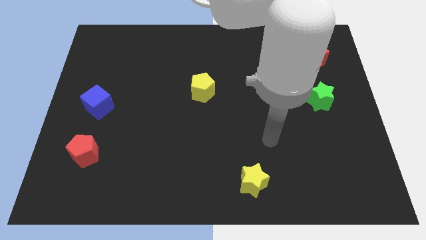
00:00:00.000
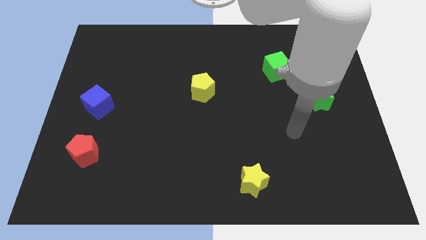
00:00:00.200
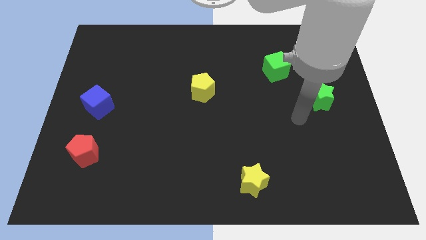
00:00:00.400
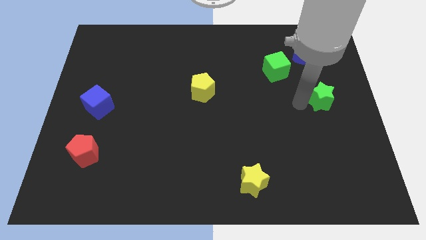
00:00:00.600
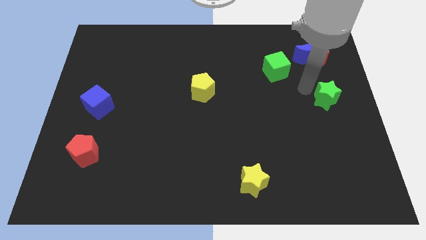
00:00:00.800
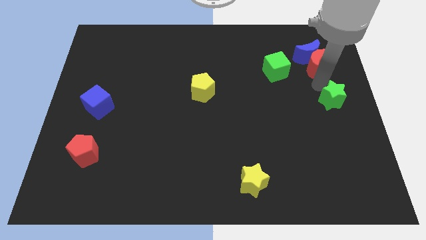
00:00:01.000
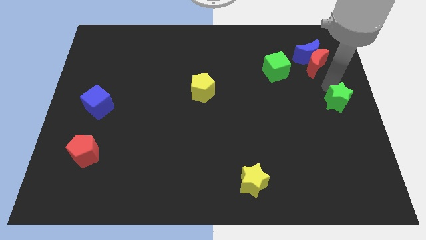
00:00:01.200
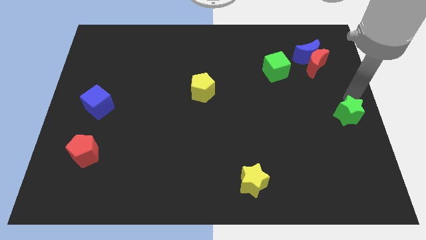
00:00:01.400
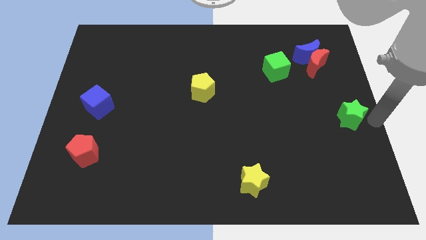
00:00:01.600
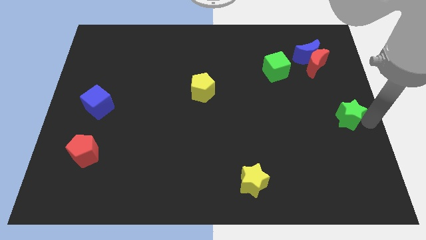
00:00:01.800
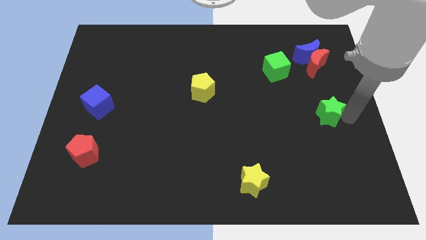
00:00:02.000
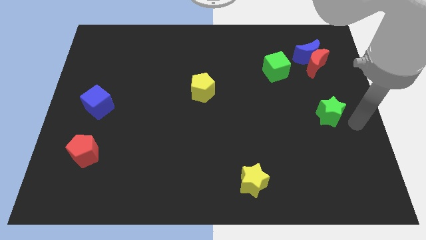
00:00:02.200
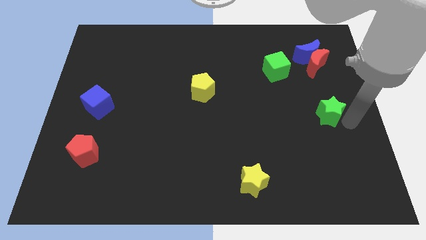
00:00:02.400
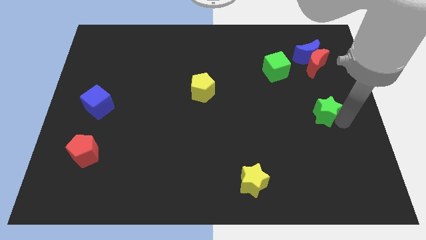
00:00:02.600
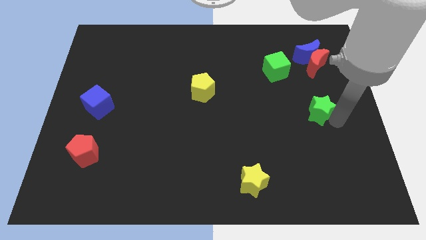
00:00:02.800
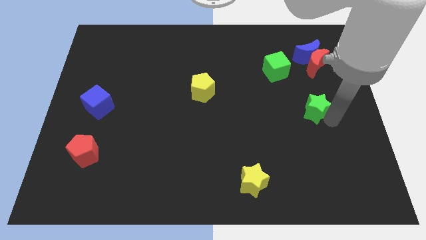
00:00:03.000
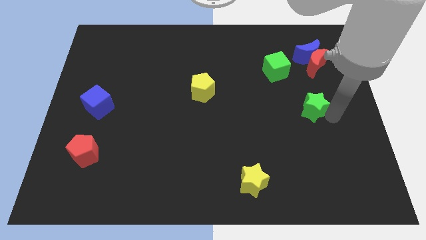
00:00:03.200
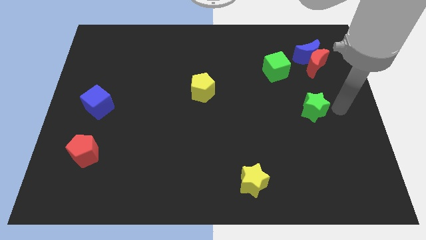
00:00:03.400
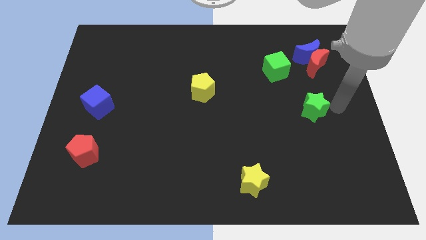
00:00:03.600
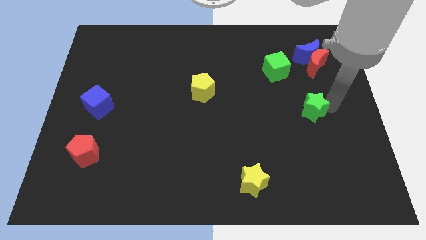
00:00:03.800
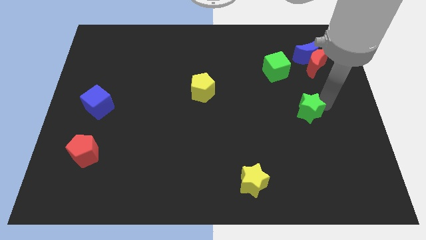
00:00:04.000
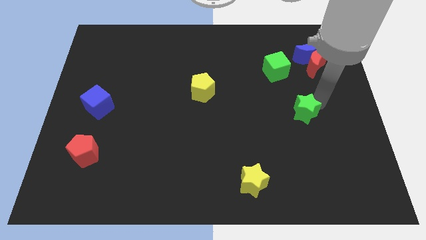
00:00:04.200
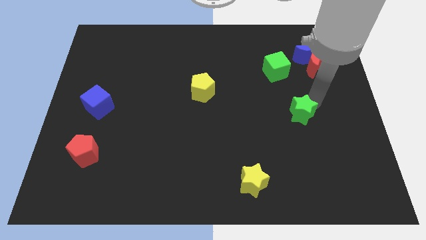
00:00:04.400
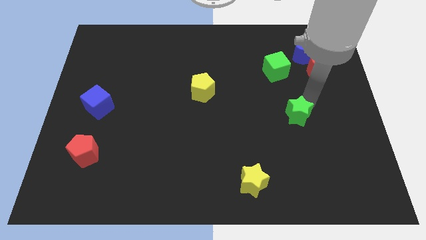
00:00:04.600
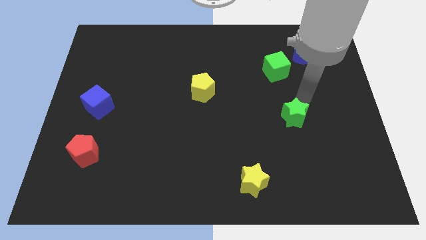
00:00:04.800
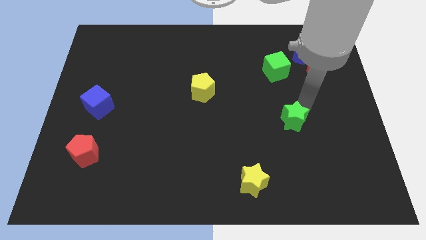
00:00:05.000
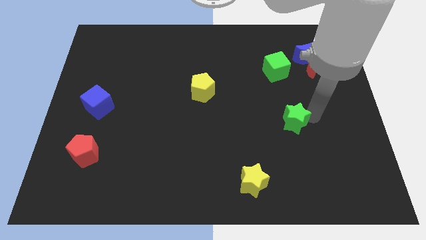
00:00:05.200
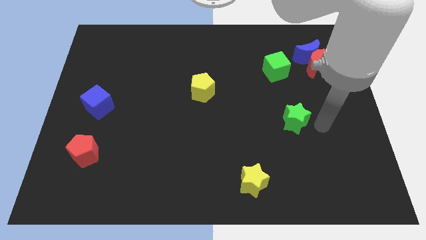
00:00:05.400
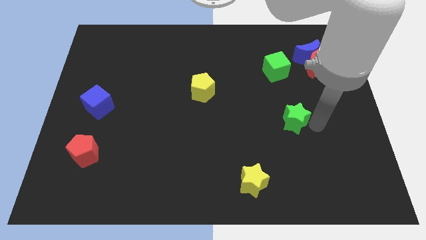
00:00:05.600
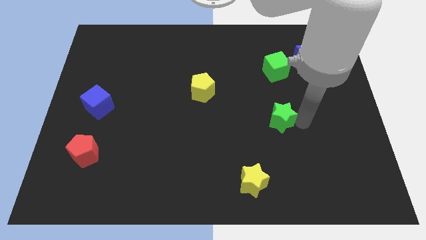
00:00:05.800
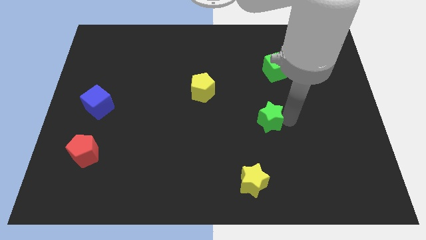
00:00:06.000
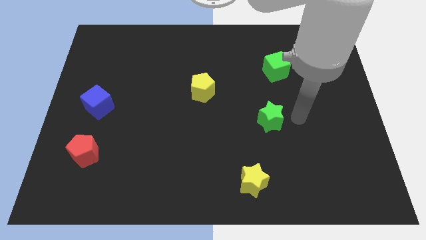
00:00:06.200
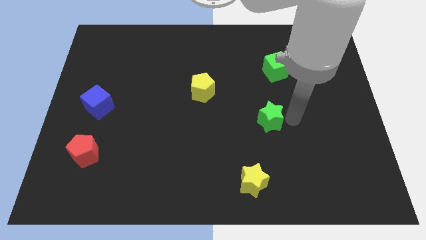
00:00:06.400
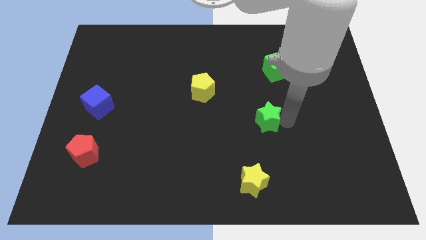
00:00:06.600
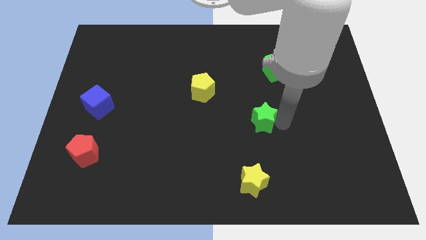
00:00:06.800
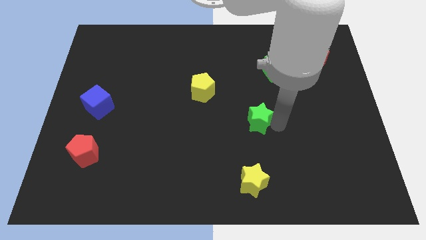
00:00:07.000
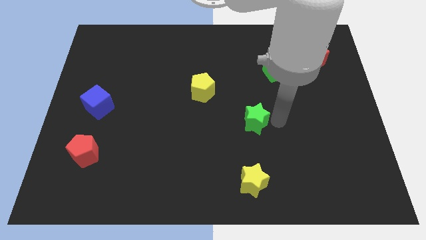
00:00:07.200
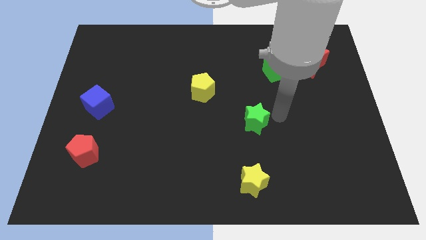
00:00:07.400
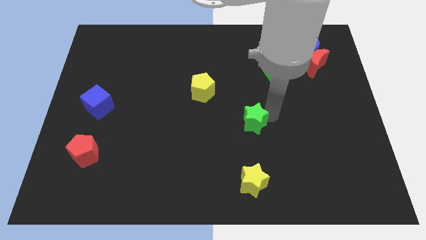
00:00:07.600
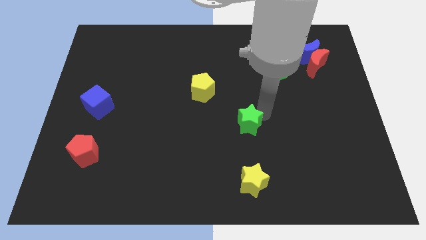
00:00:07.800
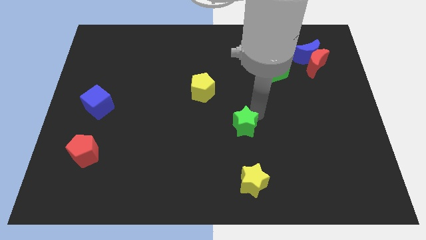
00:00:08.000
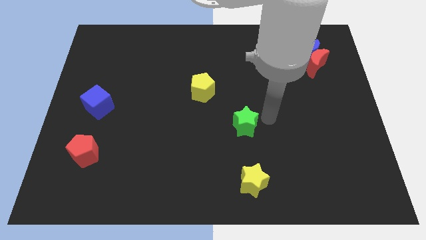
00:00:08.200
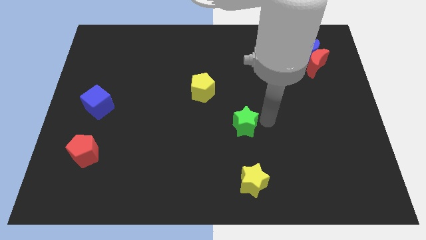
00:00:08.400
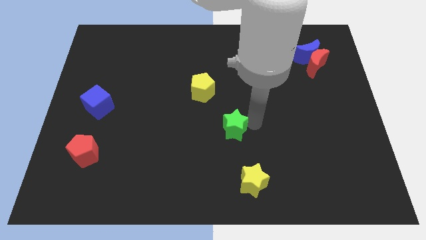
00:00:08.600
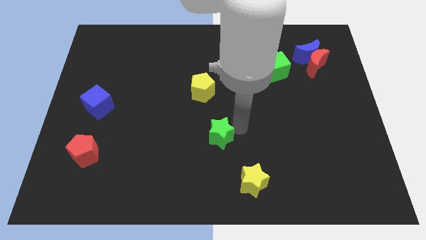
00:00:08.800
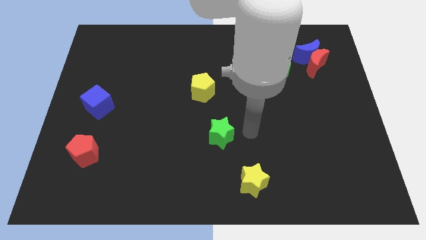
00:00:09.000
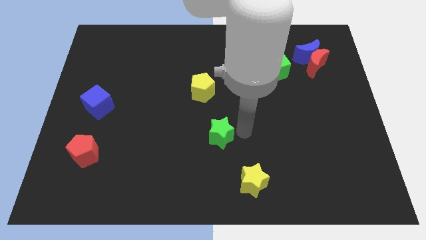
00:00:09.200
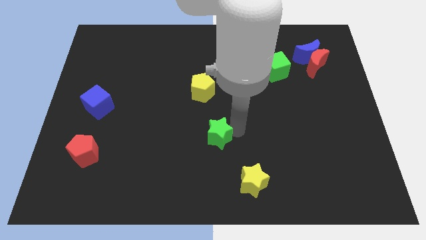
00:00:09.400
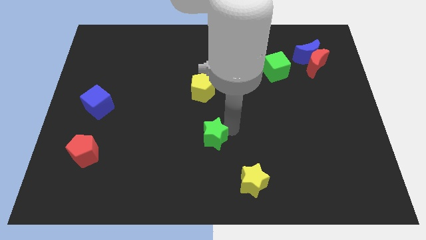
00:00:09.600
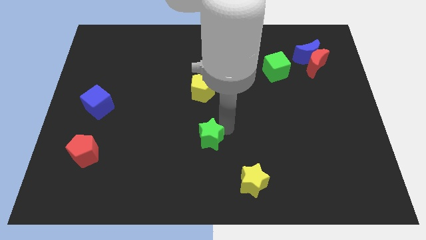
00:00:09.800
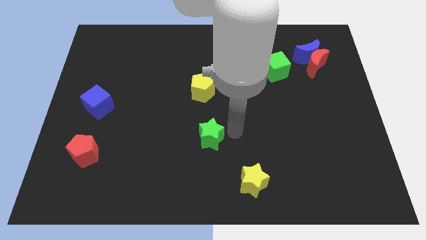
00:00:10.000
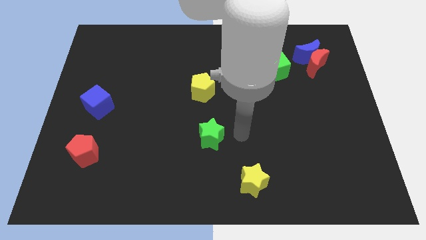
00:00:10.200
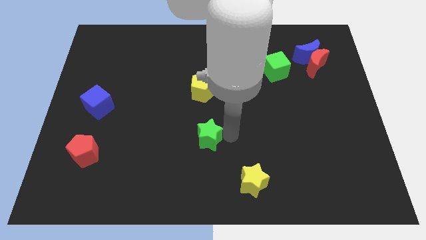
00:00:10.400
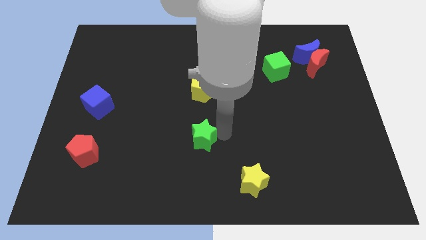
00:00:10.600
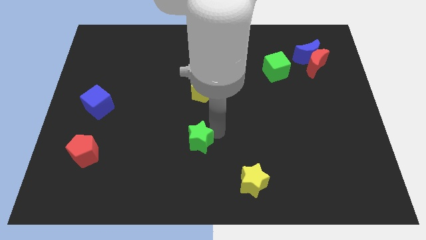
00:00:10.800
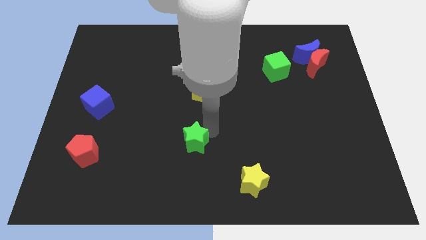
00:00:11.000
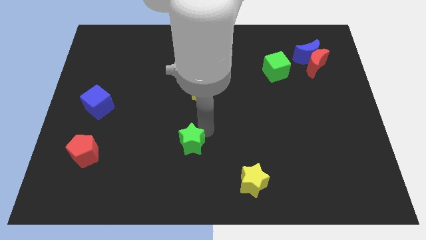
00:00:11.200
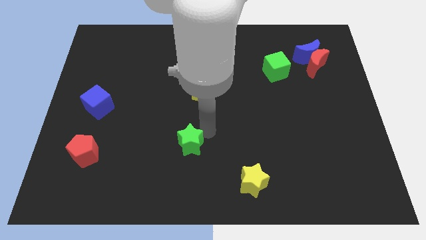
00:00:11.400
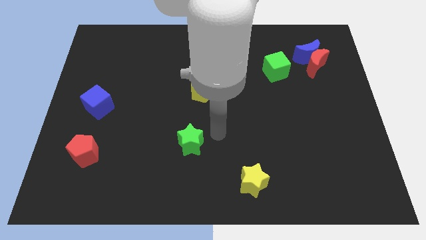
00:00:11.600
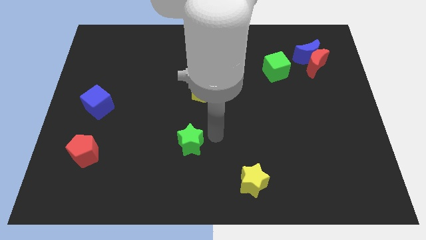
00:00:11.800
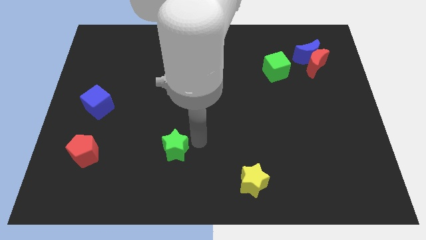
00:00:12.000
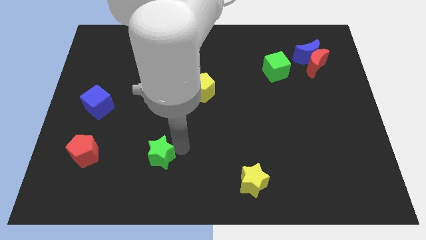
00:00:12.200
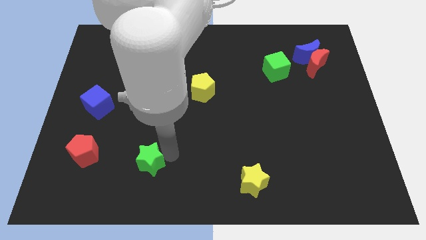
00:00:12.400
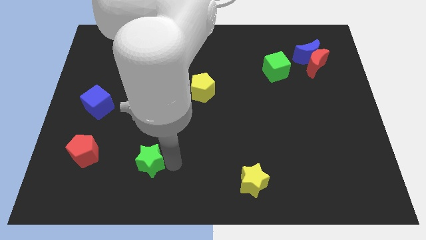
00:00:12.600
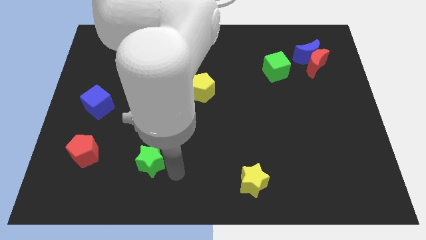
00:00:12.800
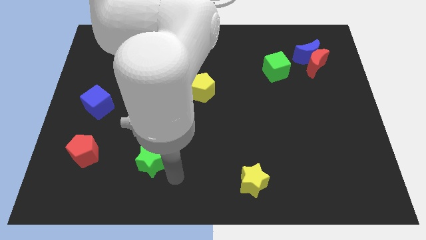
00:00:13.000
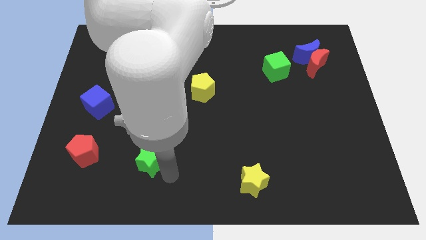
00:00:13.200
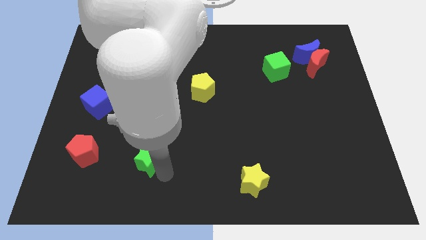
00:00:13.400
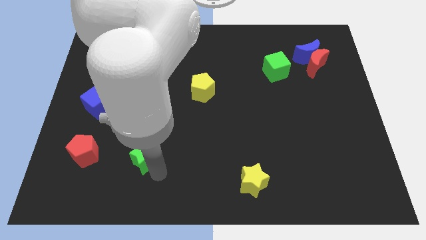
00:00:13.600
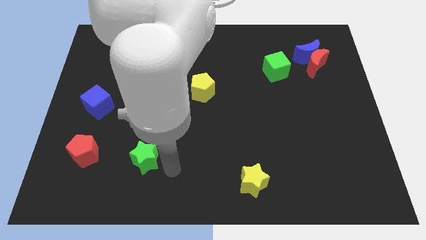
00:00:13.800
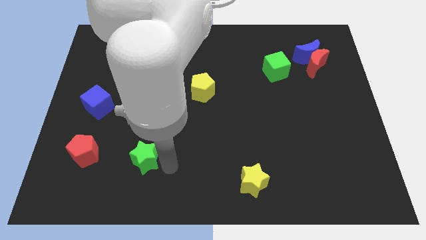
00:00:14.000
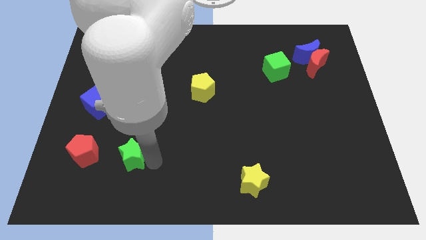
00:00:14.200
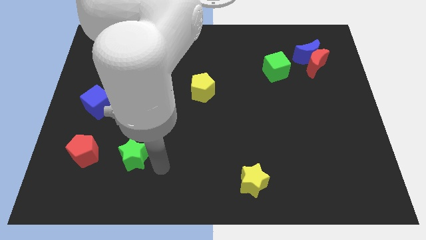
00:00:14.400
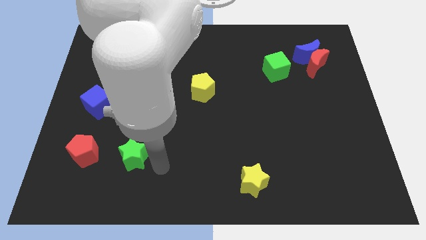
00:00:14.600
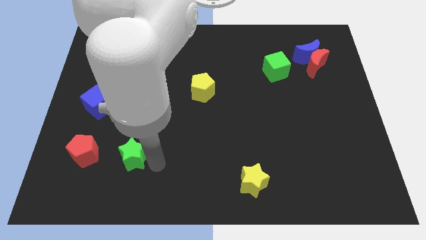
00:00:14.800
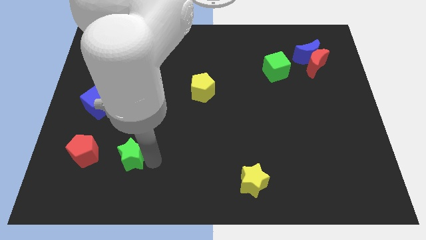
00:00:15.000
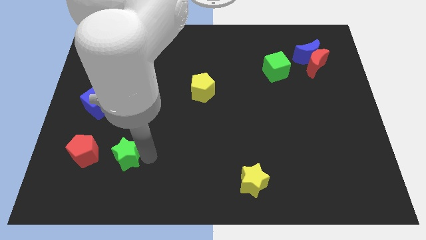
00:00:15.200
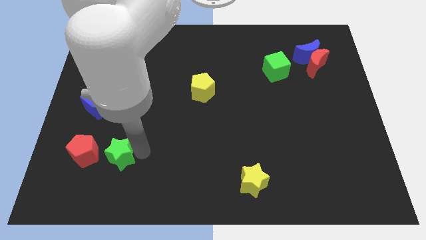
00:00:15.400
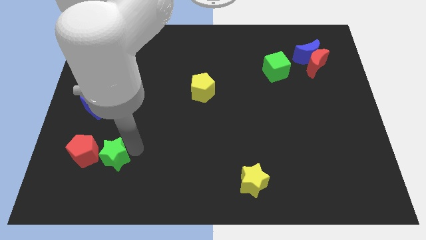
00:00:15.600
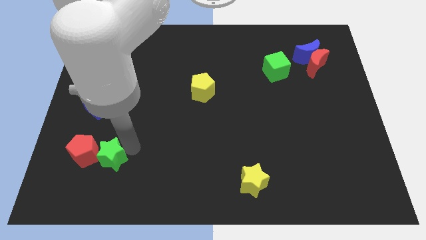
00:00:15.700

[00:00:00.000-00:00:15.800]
put the green star to the red pentagon

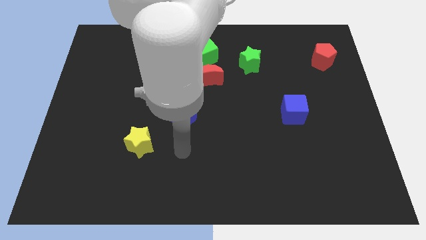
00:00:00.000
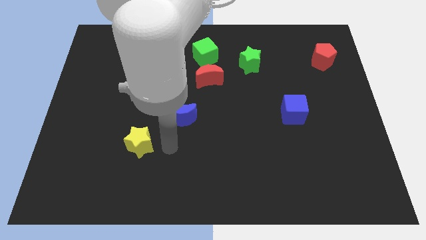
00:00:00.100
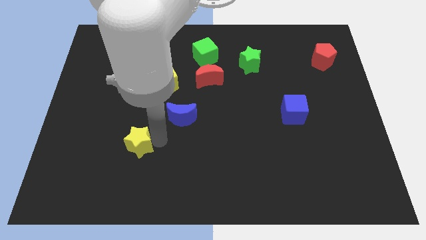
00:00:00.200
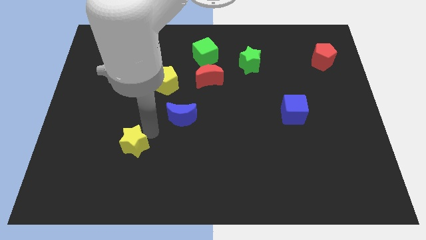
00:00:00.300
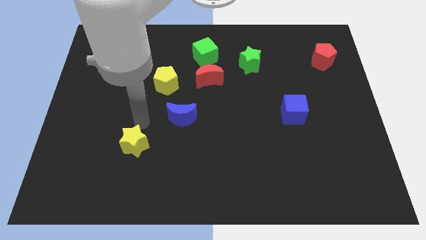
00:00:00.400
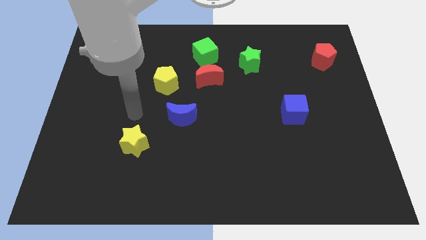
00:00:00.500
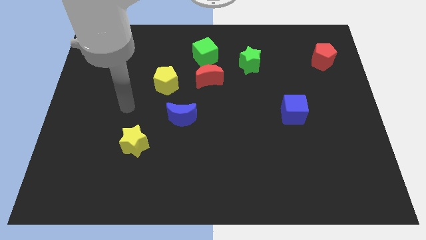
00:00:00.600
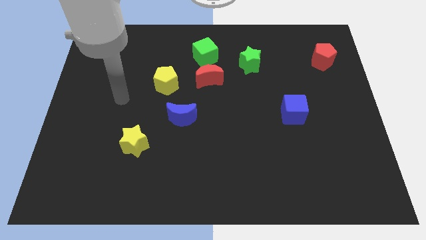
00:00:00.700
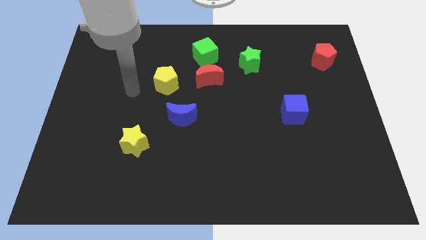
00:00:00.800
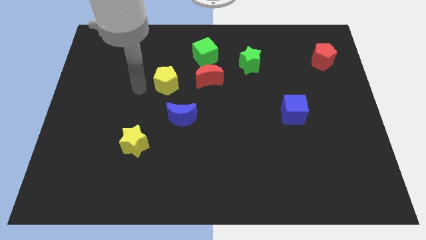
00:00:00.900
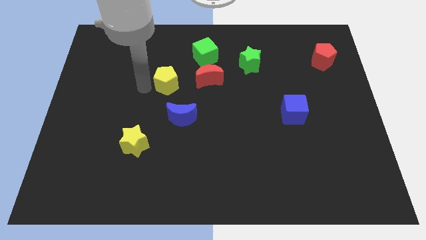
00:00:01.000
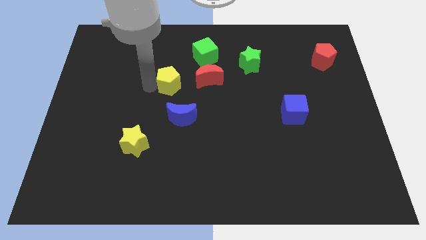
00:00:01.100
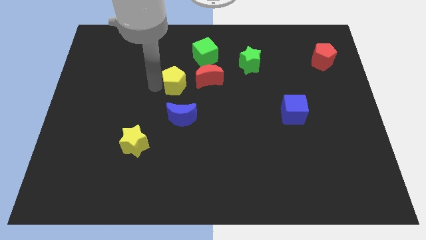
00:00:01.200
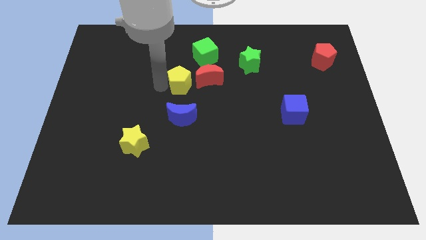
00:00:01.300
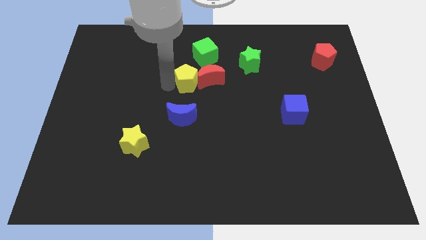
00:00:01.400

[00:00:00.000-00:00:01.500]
slide the yellow pentagon next to the red moon
